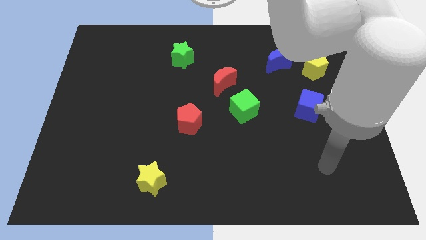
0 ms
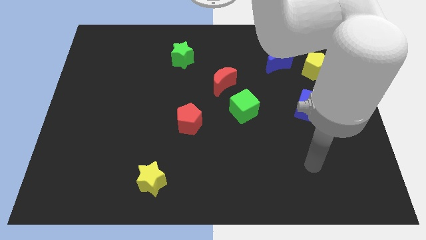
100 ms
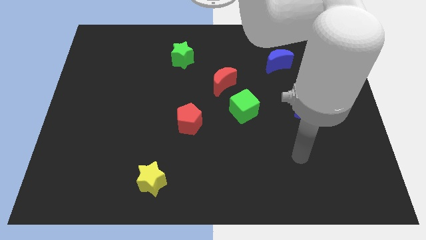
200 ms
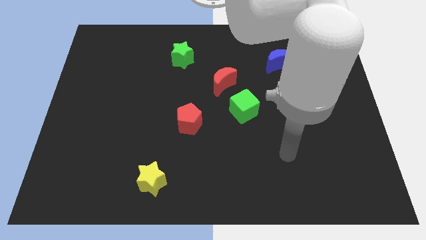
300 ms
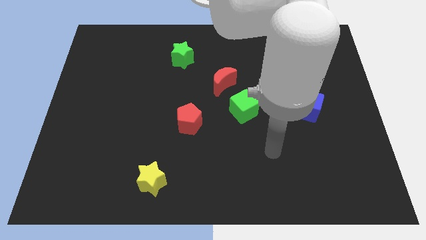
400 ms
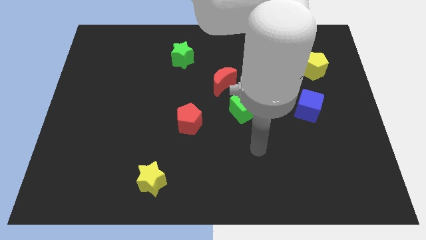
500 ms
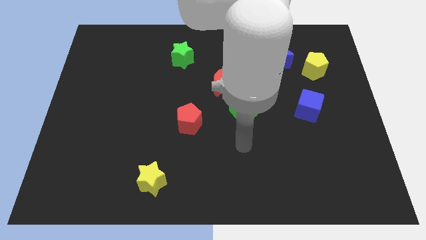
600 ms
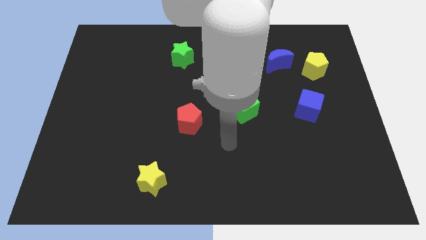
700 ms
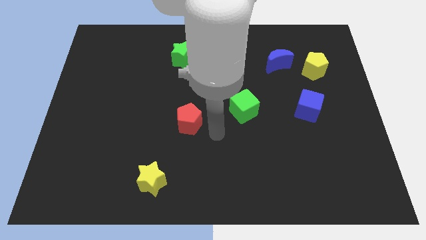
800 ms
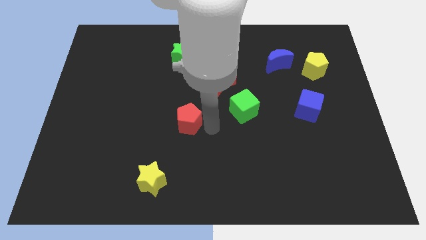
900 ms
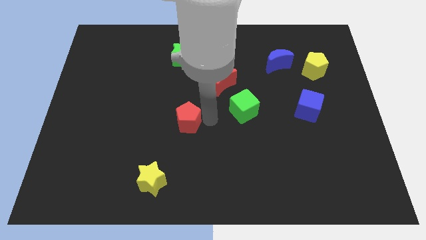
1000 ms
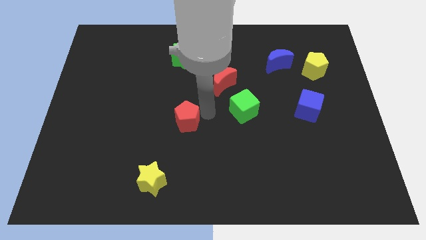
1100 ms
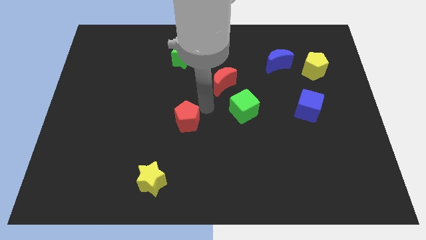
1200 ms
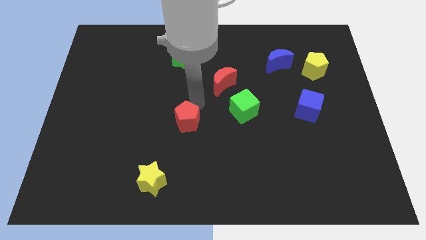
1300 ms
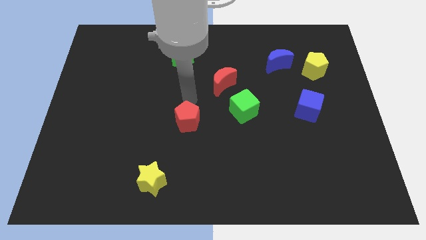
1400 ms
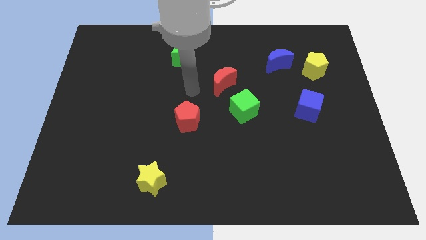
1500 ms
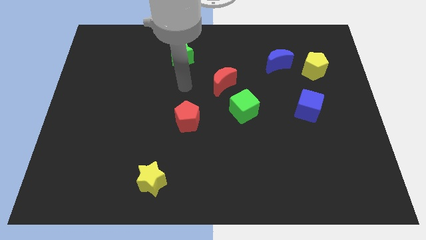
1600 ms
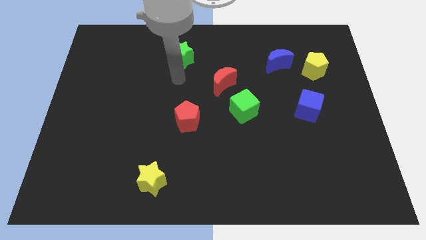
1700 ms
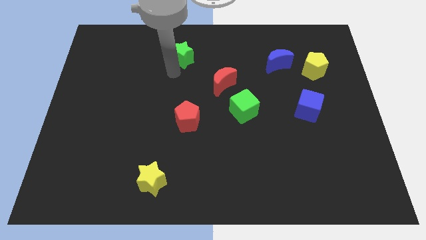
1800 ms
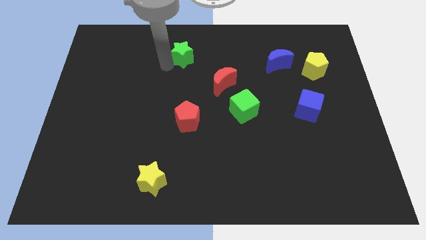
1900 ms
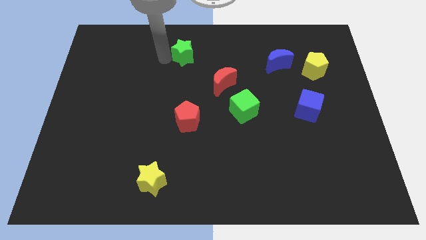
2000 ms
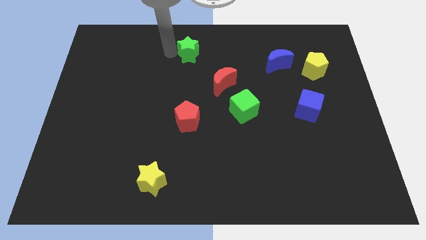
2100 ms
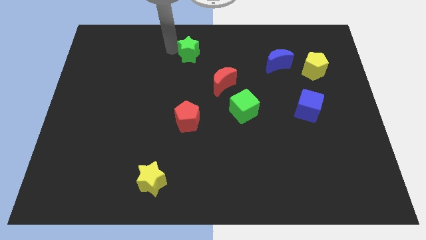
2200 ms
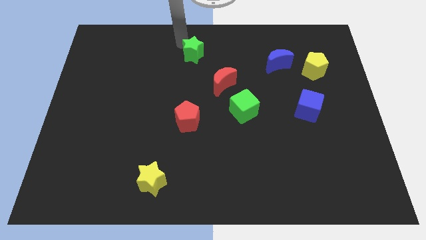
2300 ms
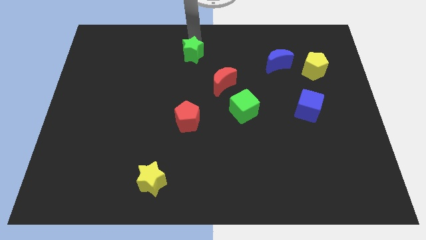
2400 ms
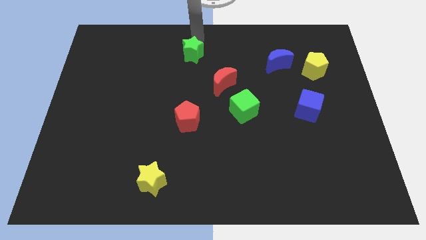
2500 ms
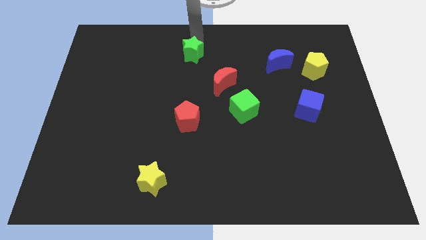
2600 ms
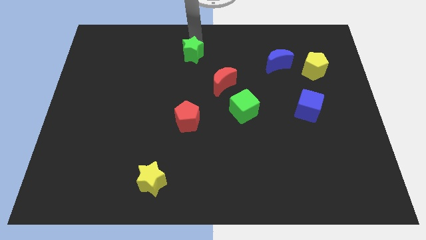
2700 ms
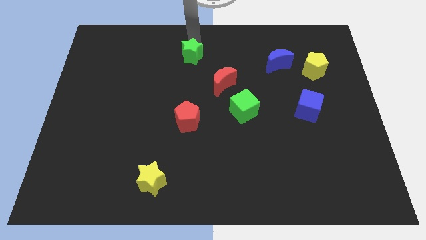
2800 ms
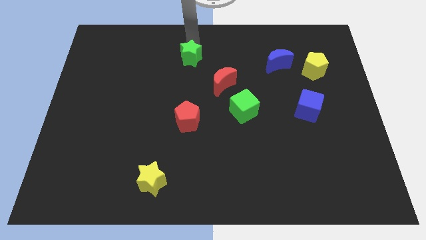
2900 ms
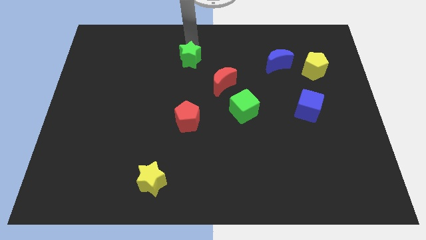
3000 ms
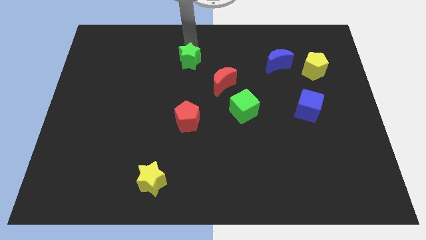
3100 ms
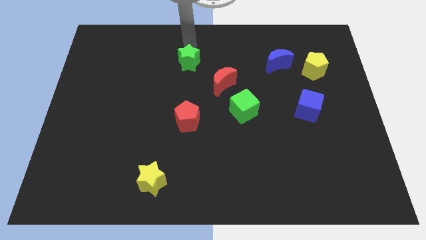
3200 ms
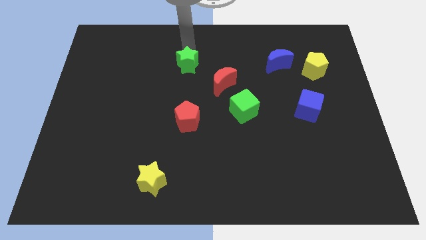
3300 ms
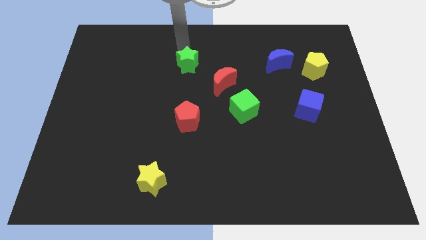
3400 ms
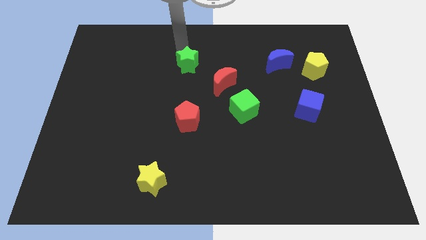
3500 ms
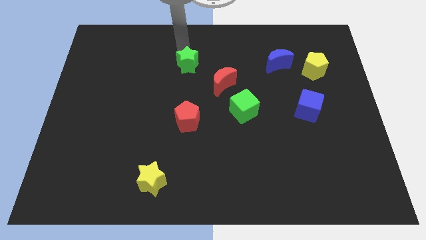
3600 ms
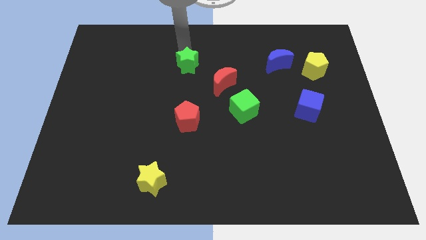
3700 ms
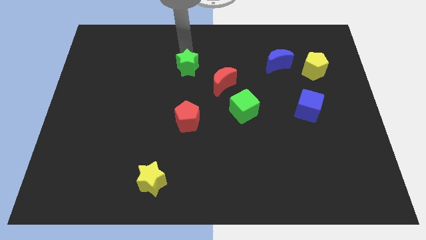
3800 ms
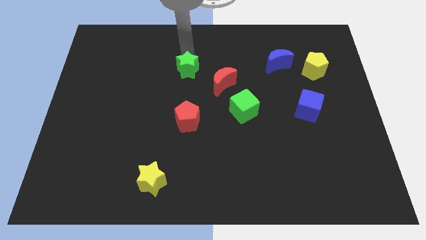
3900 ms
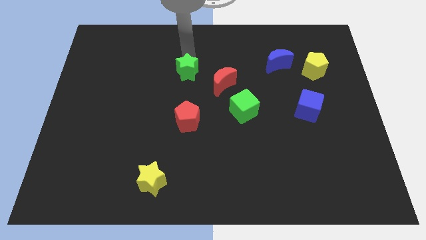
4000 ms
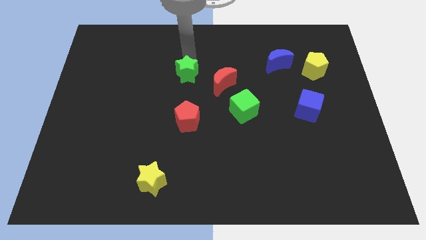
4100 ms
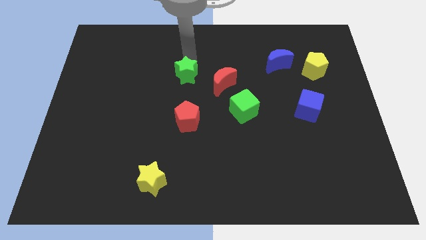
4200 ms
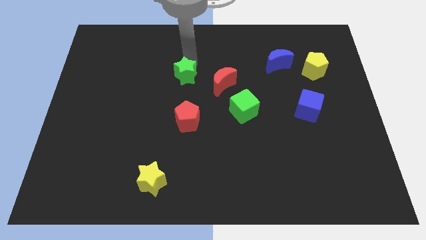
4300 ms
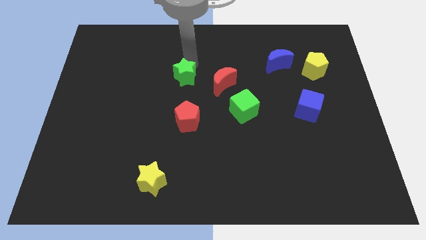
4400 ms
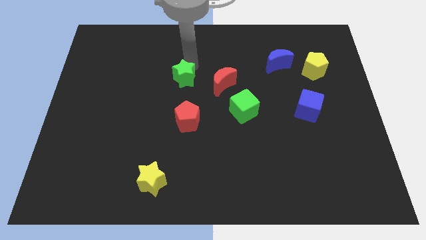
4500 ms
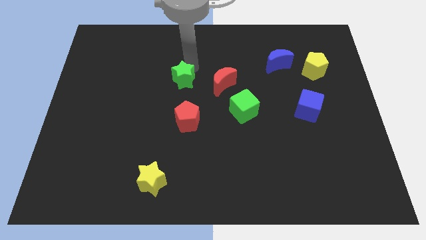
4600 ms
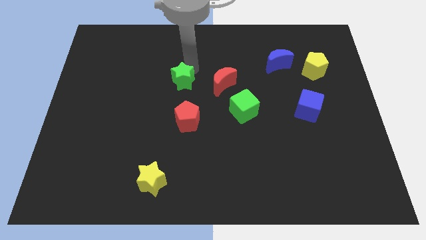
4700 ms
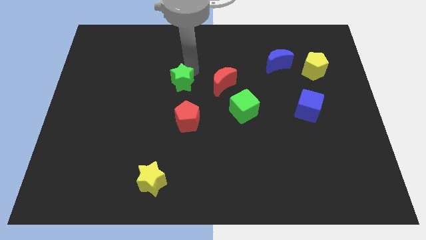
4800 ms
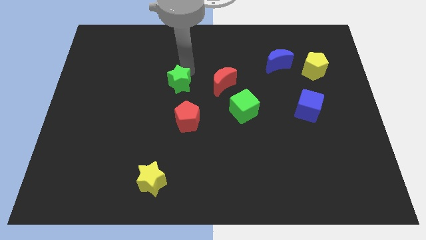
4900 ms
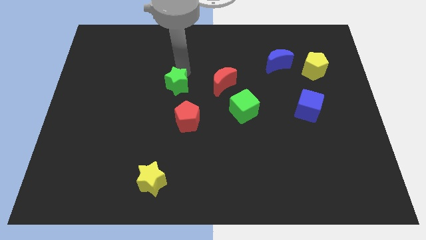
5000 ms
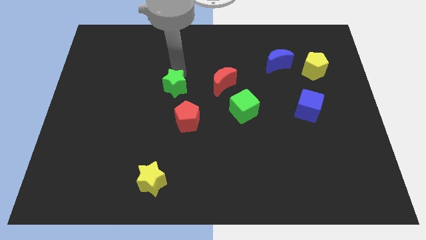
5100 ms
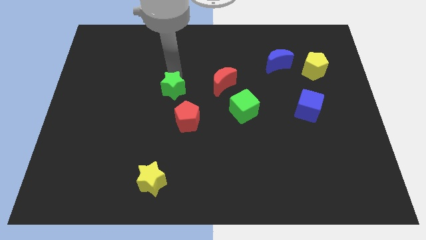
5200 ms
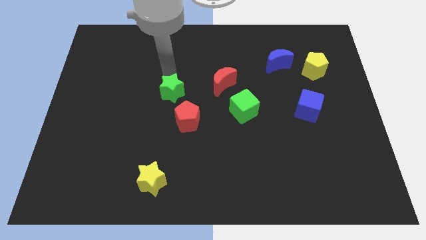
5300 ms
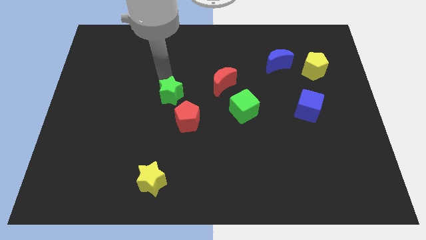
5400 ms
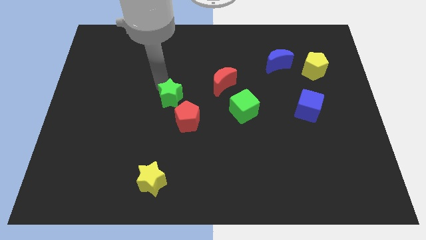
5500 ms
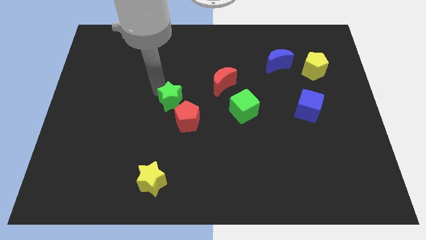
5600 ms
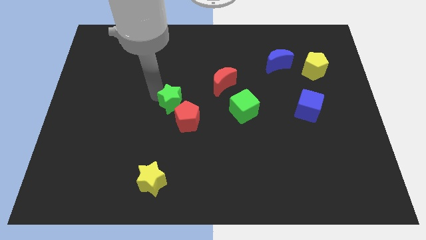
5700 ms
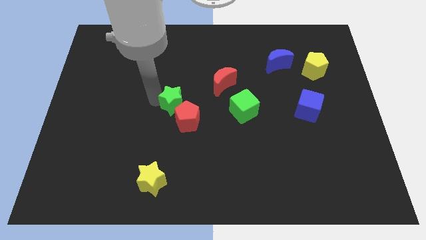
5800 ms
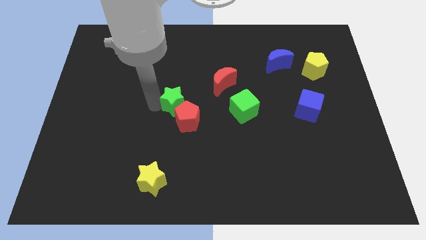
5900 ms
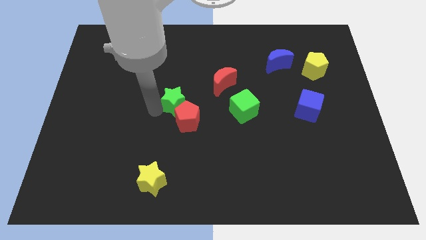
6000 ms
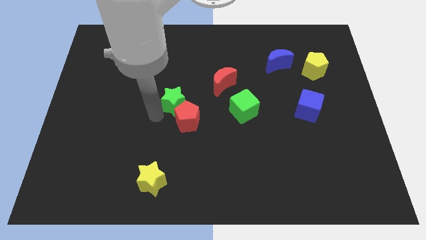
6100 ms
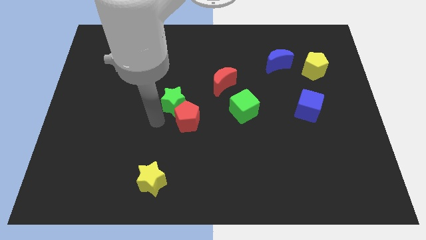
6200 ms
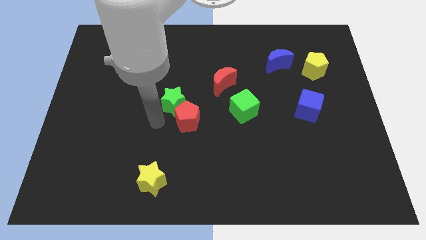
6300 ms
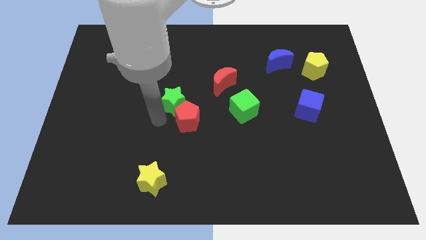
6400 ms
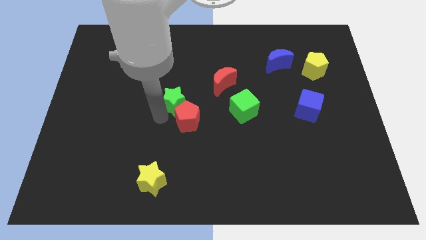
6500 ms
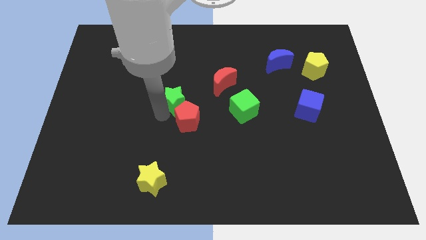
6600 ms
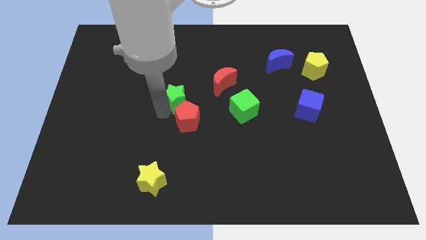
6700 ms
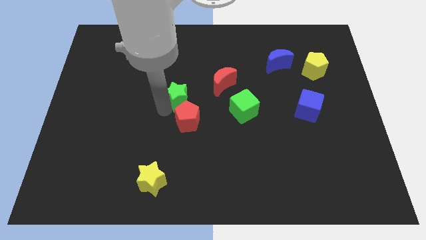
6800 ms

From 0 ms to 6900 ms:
push the green star diagonally down and to the left of the red moon
